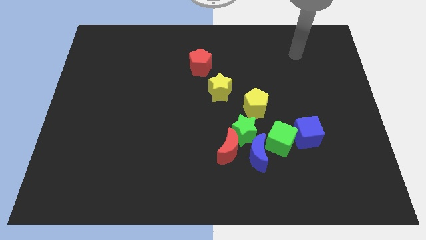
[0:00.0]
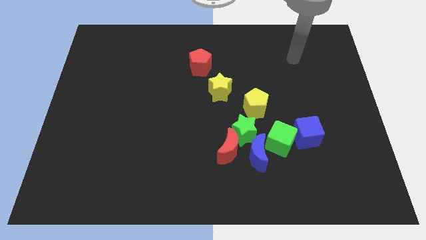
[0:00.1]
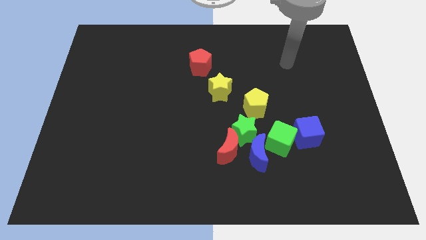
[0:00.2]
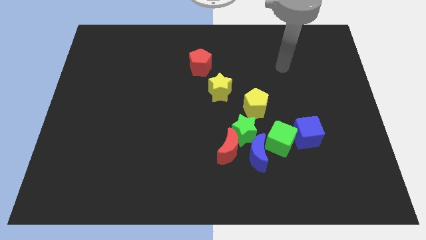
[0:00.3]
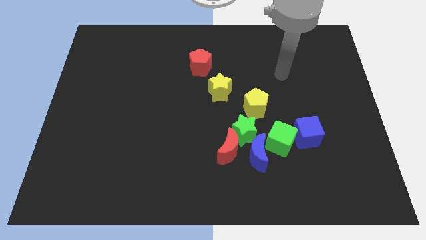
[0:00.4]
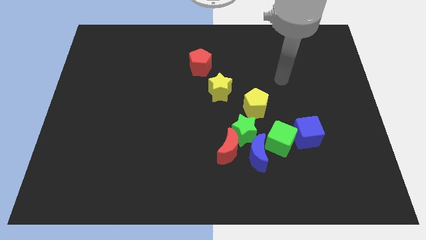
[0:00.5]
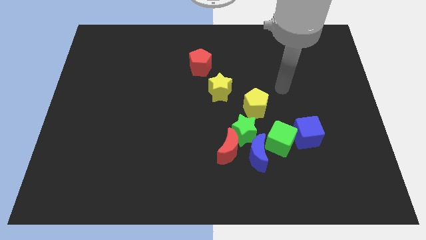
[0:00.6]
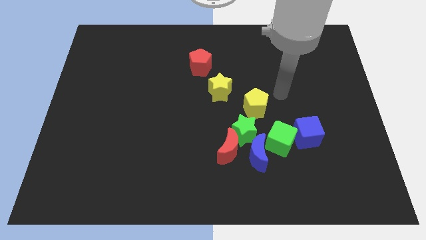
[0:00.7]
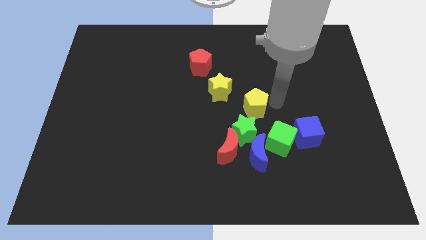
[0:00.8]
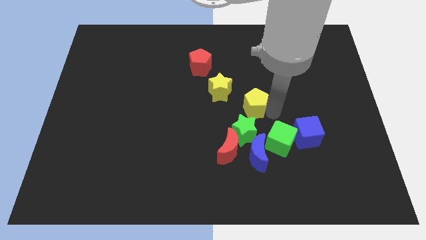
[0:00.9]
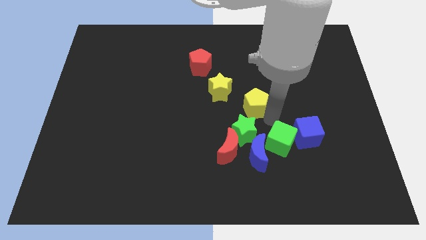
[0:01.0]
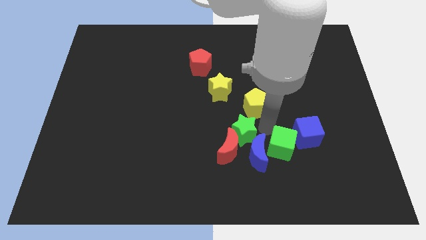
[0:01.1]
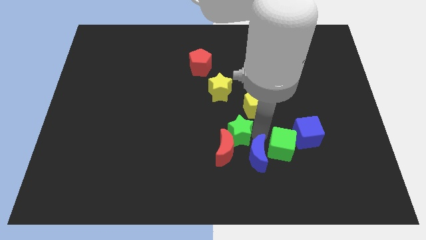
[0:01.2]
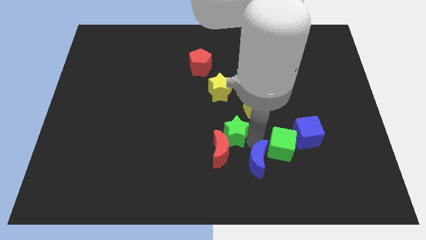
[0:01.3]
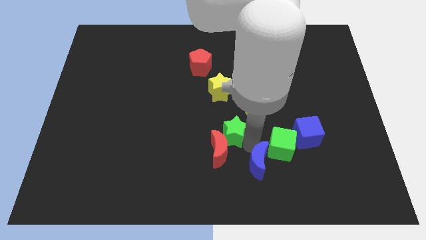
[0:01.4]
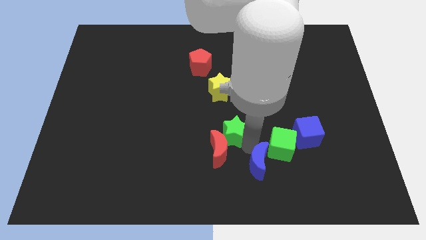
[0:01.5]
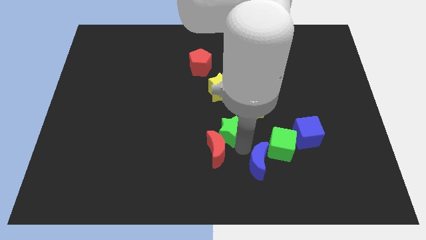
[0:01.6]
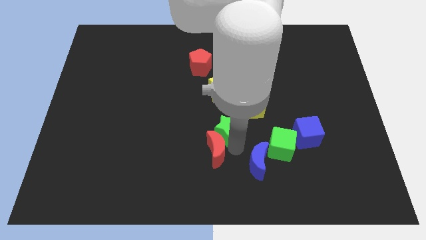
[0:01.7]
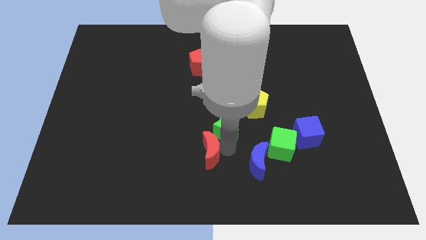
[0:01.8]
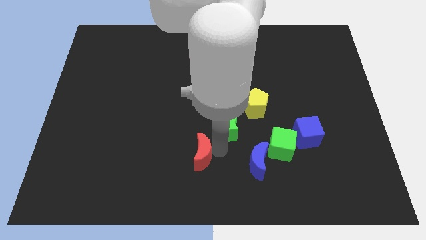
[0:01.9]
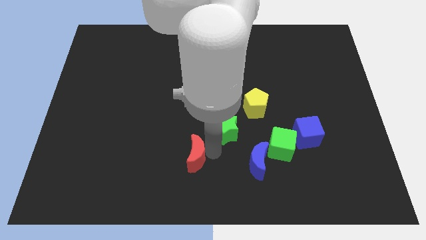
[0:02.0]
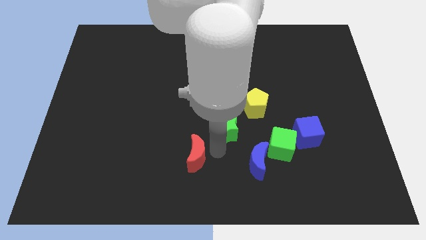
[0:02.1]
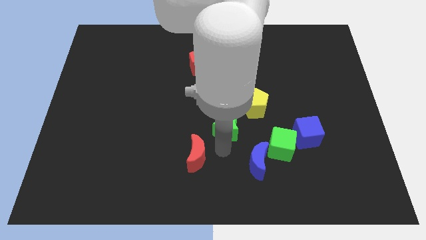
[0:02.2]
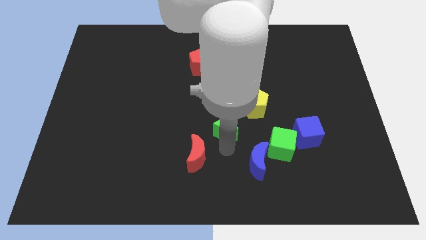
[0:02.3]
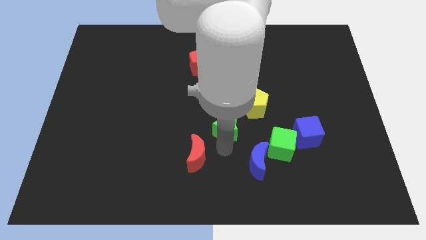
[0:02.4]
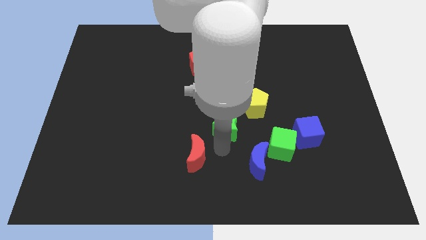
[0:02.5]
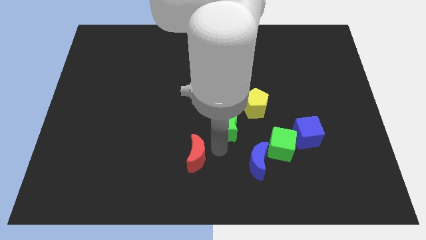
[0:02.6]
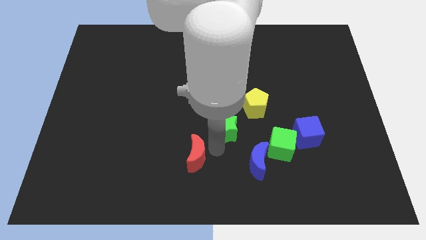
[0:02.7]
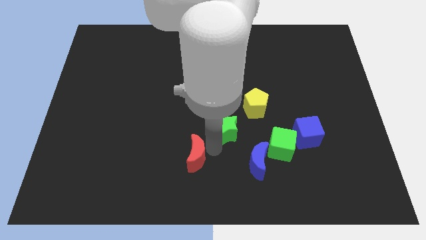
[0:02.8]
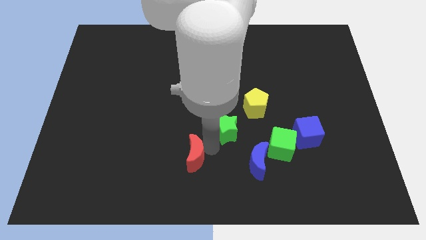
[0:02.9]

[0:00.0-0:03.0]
separate the red moon from the green star and blue moon

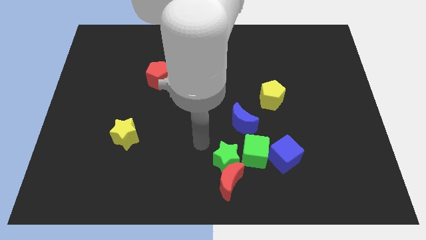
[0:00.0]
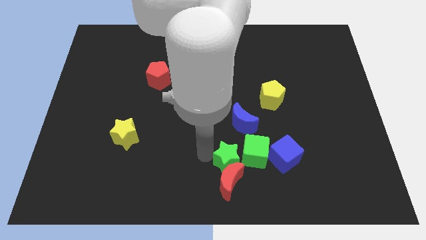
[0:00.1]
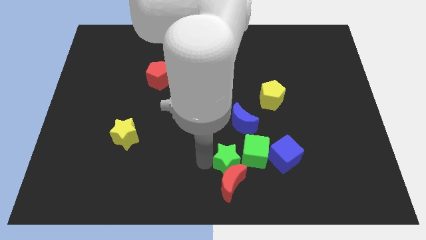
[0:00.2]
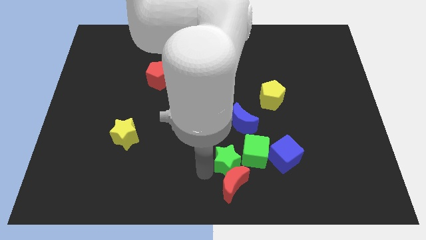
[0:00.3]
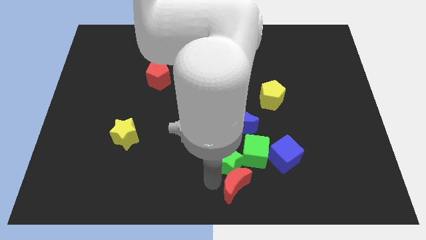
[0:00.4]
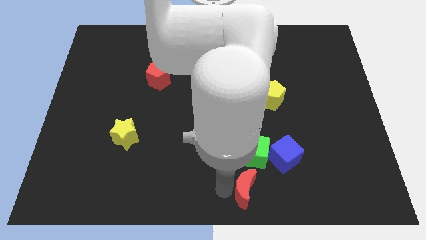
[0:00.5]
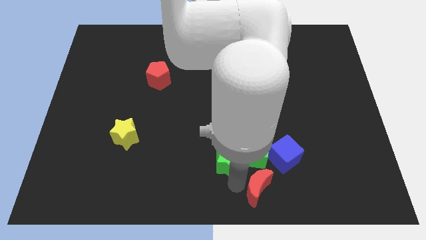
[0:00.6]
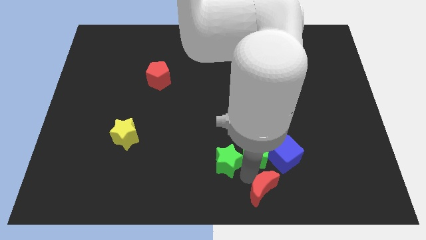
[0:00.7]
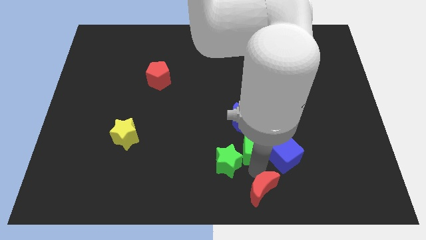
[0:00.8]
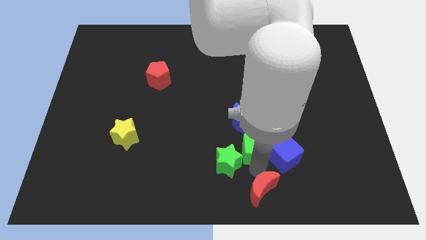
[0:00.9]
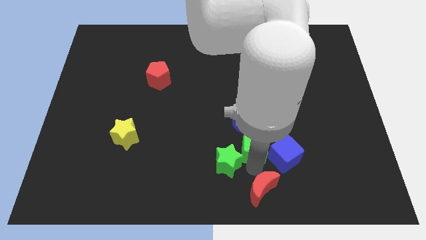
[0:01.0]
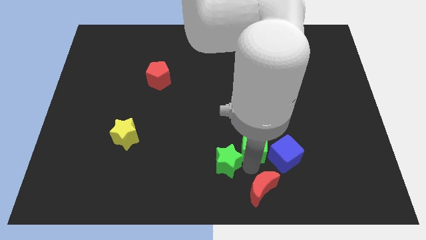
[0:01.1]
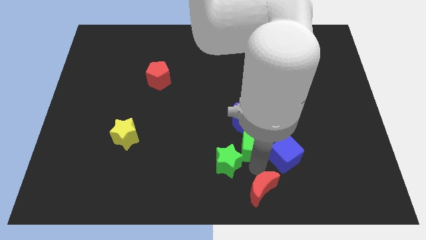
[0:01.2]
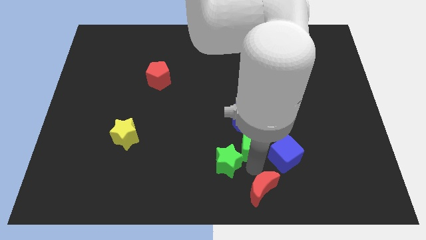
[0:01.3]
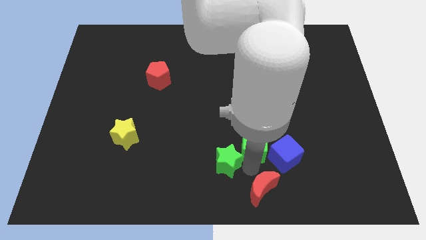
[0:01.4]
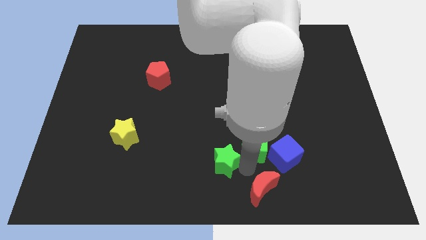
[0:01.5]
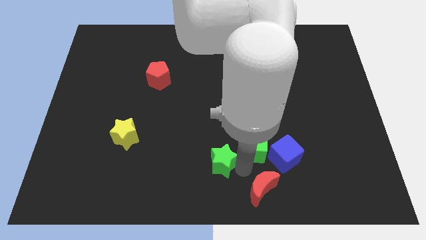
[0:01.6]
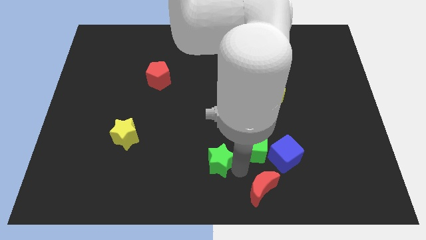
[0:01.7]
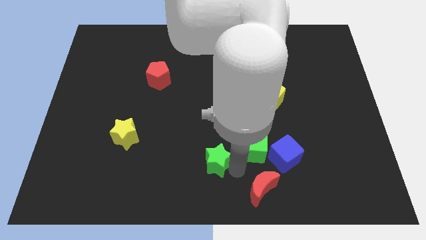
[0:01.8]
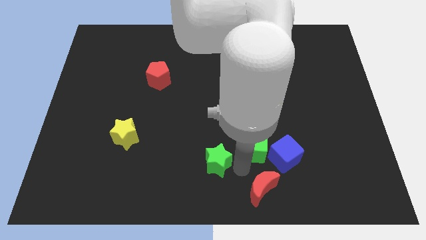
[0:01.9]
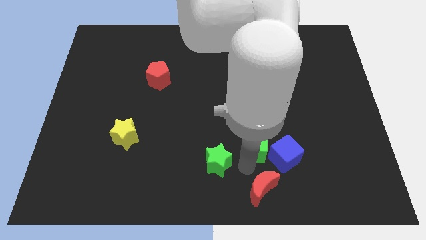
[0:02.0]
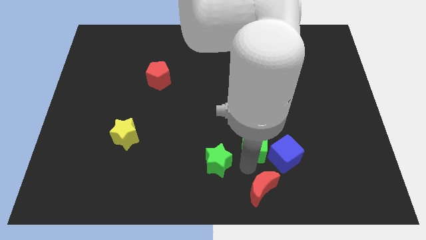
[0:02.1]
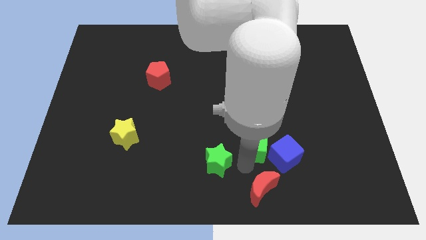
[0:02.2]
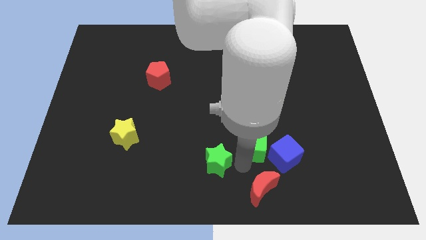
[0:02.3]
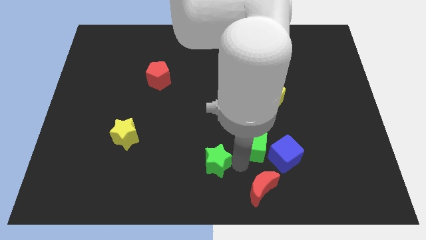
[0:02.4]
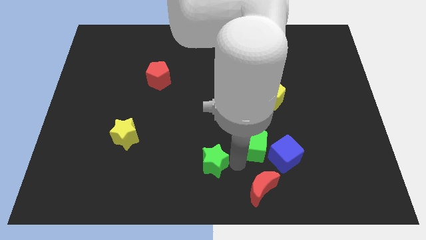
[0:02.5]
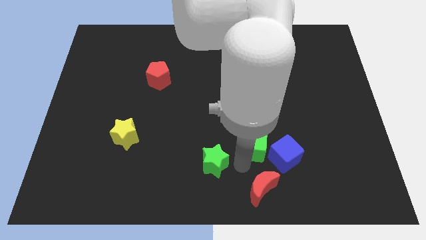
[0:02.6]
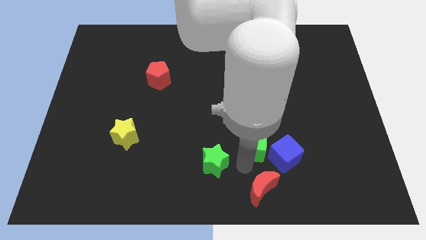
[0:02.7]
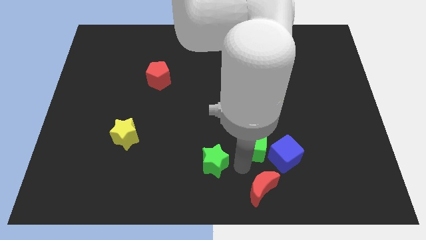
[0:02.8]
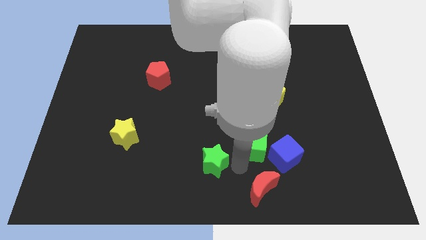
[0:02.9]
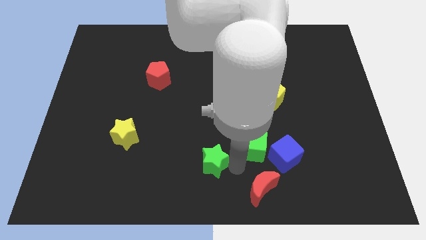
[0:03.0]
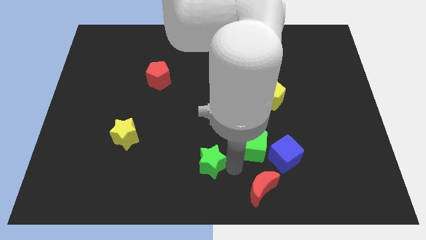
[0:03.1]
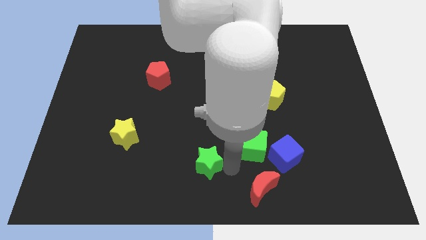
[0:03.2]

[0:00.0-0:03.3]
separate the green star from the red moon and green cube

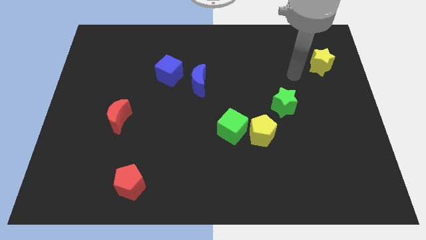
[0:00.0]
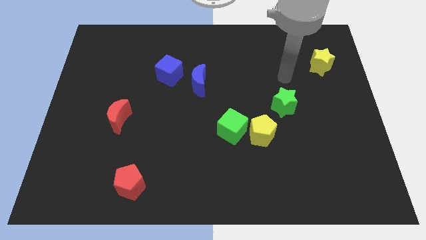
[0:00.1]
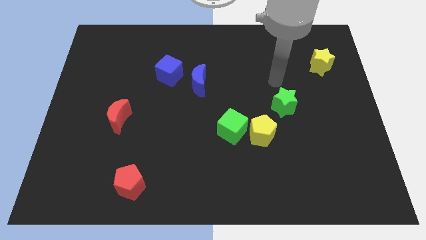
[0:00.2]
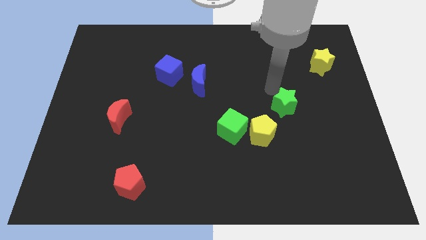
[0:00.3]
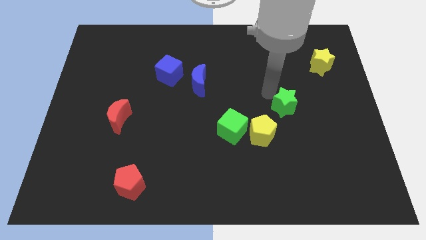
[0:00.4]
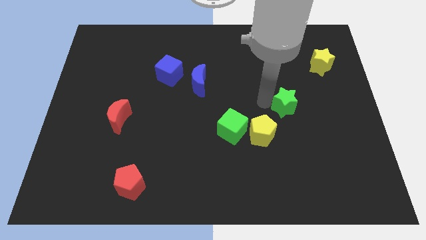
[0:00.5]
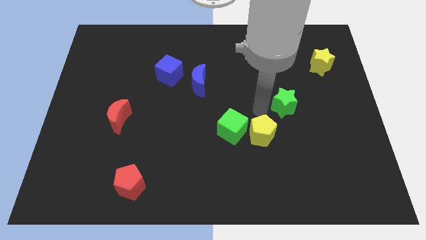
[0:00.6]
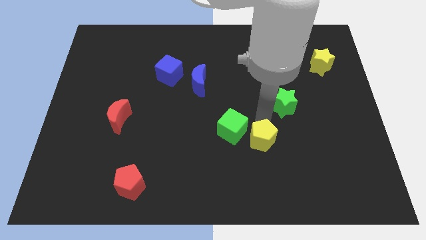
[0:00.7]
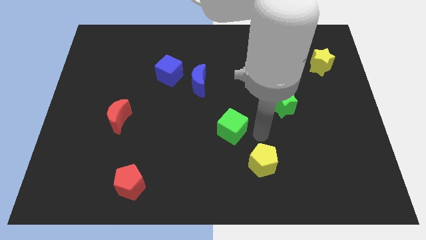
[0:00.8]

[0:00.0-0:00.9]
pull the green cube apart from the yellow pentagon

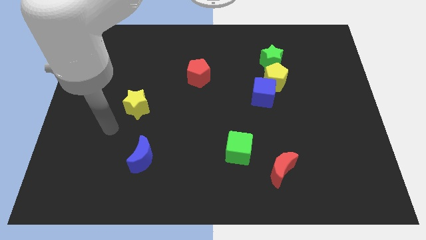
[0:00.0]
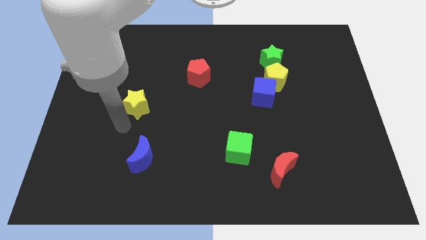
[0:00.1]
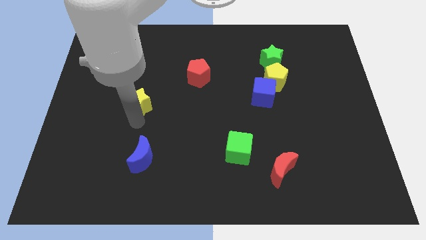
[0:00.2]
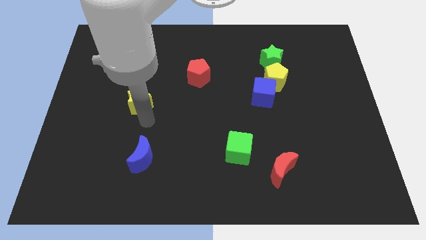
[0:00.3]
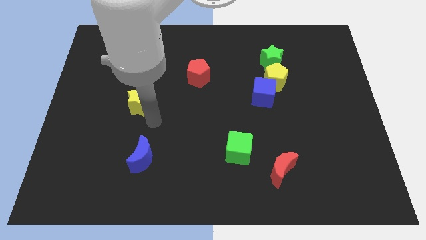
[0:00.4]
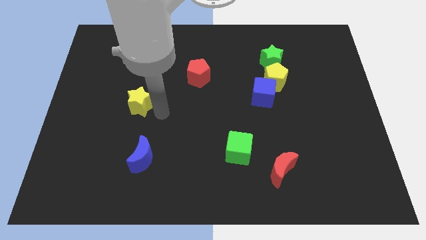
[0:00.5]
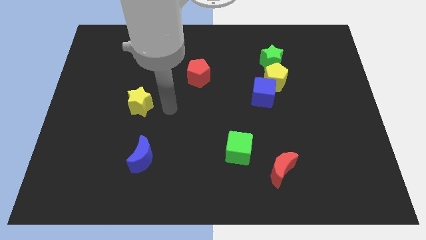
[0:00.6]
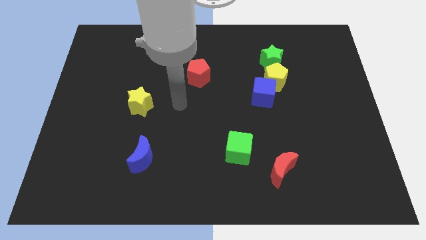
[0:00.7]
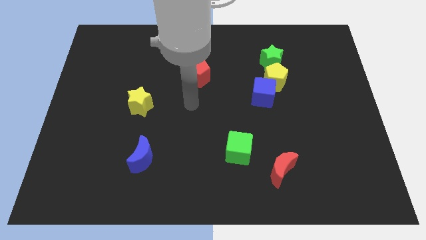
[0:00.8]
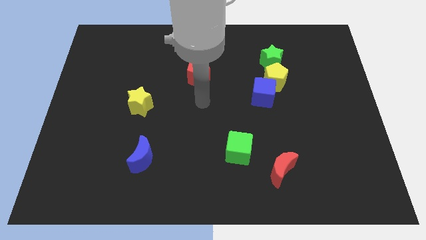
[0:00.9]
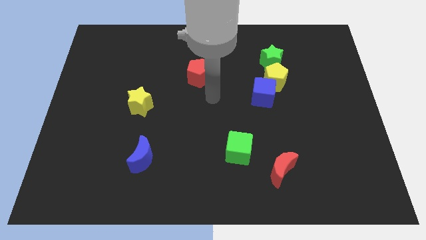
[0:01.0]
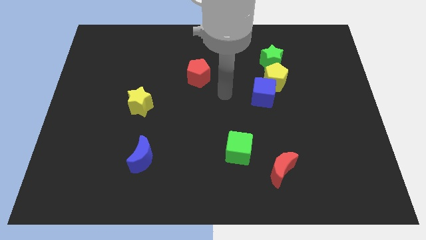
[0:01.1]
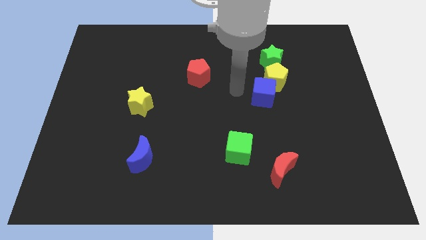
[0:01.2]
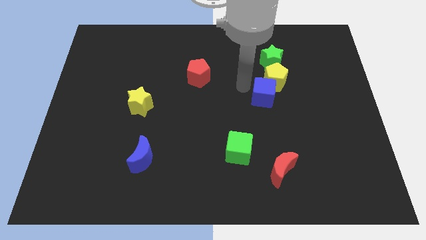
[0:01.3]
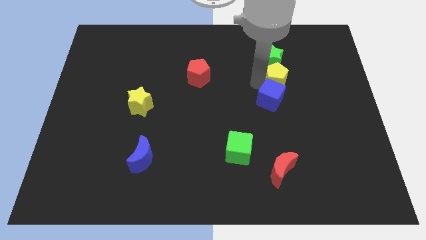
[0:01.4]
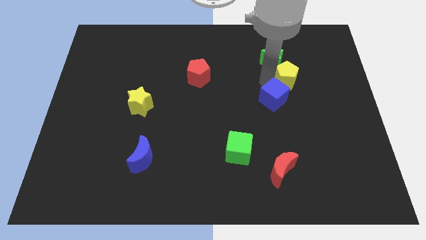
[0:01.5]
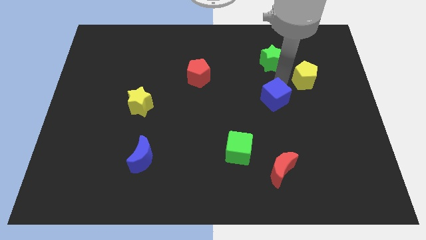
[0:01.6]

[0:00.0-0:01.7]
separate the blue cube from the yellow pentagon

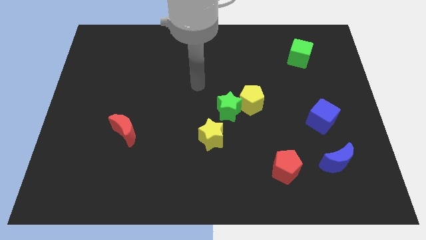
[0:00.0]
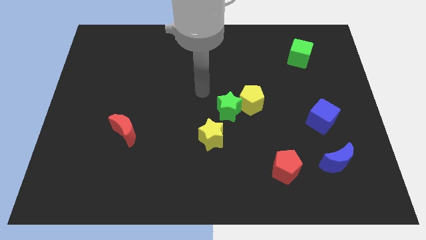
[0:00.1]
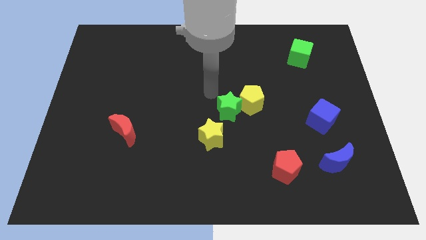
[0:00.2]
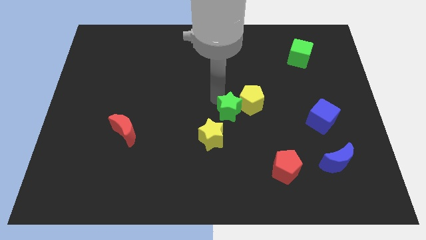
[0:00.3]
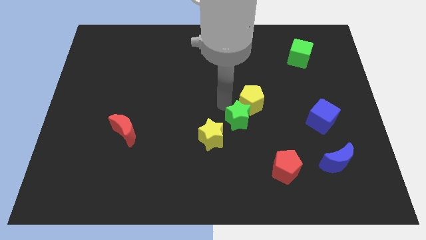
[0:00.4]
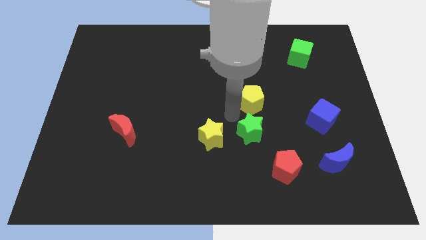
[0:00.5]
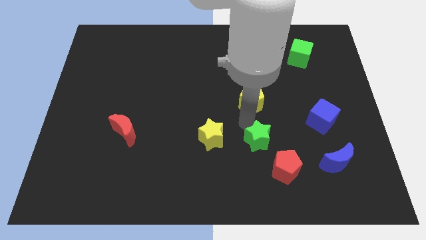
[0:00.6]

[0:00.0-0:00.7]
move the yellow pentagon away from the green star
